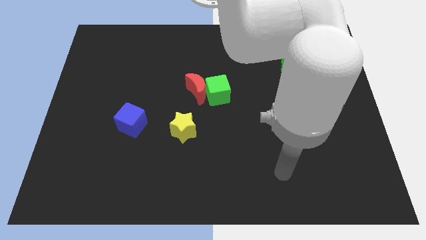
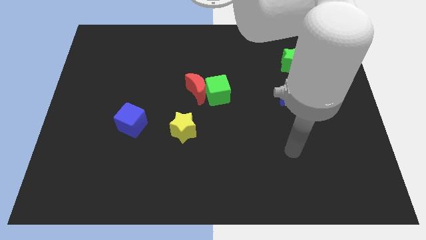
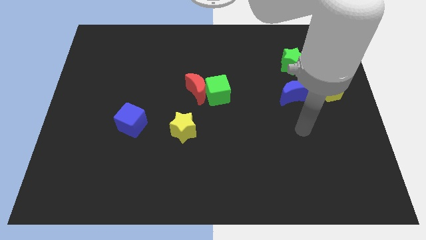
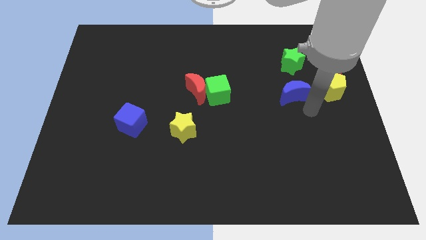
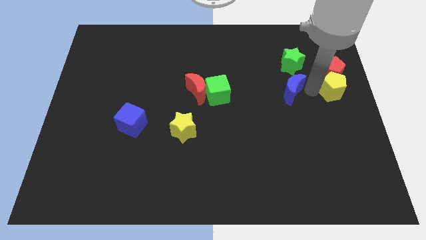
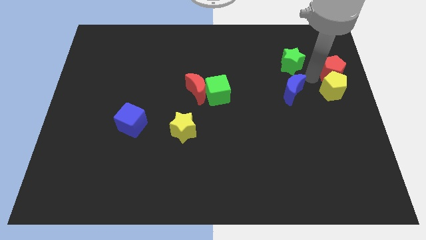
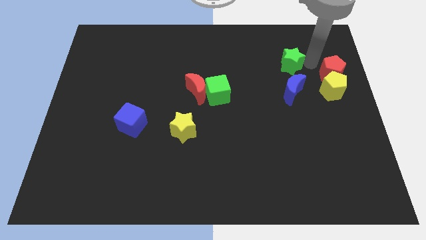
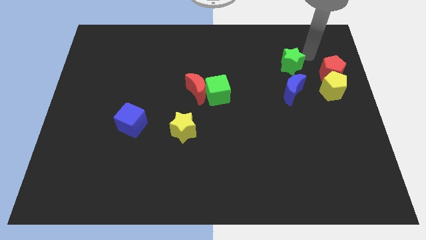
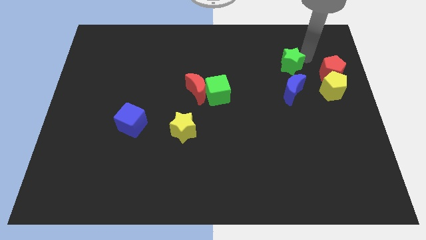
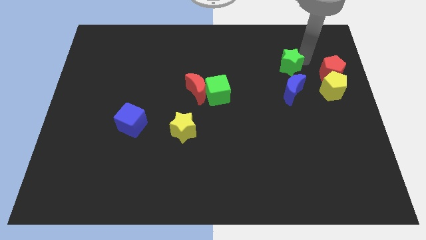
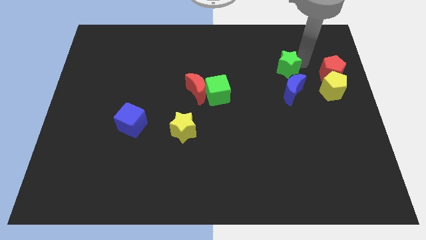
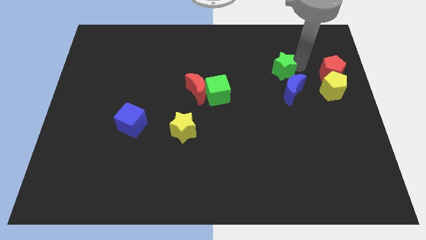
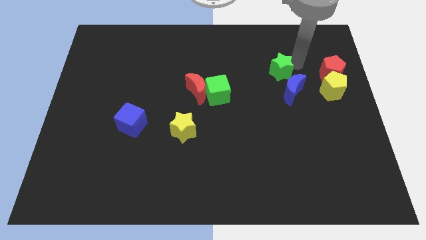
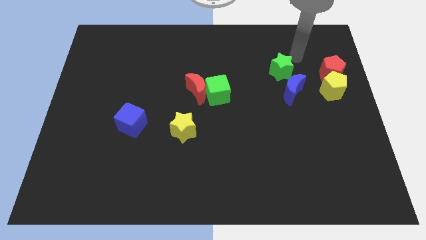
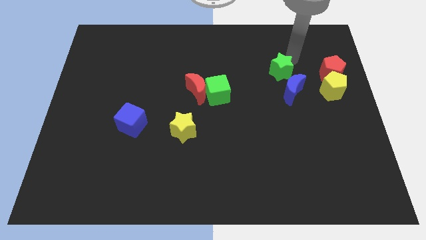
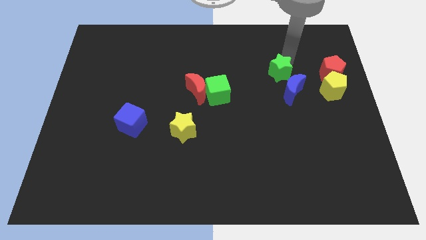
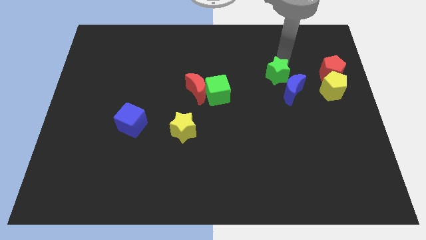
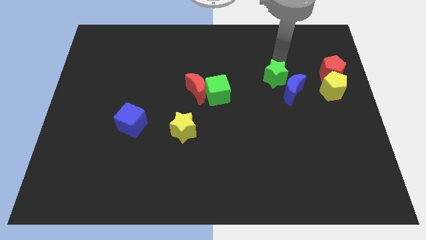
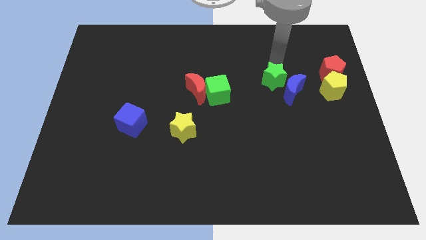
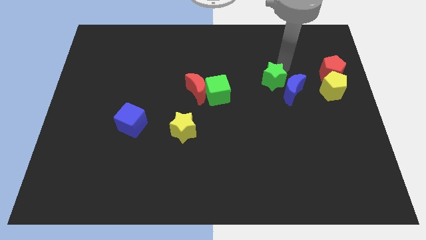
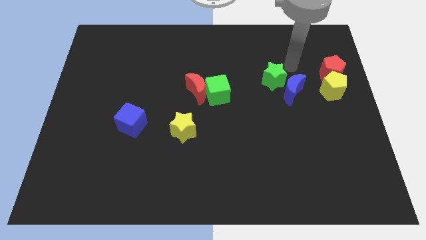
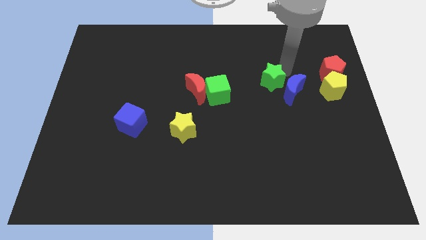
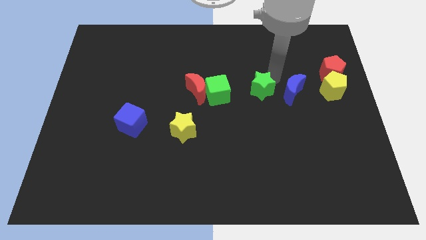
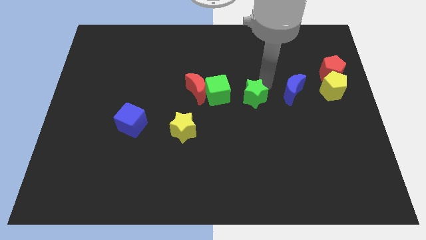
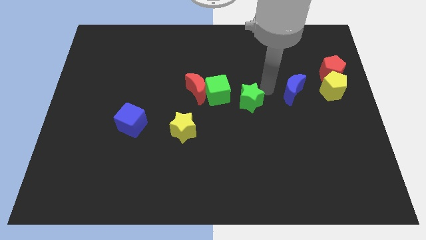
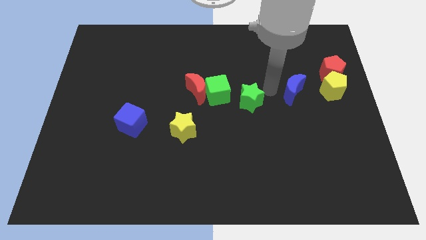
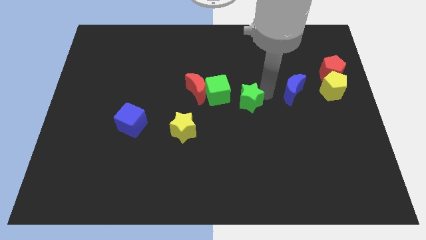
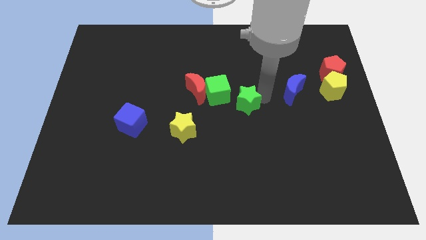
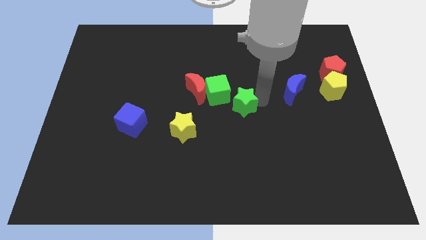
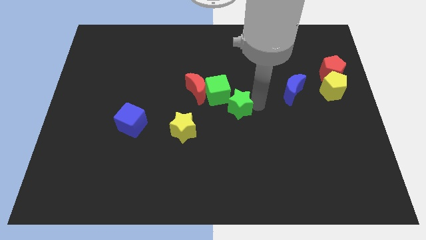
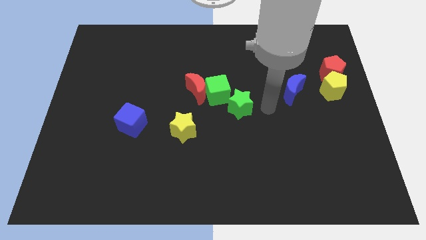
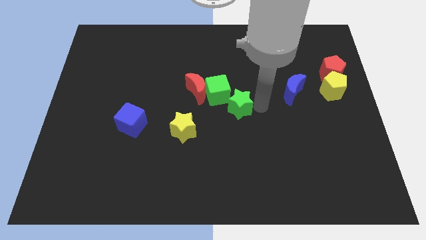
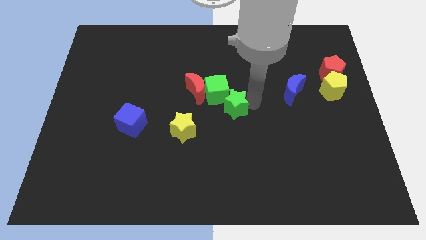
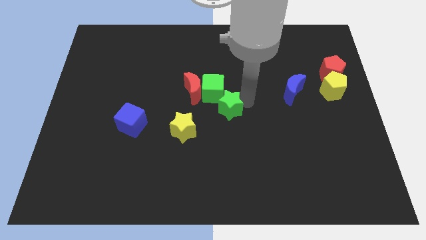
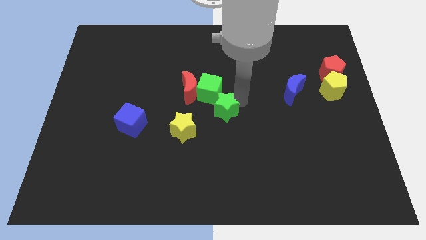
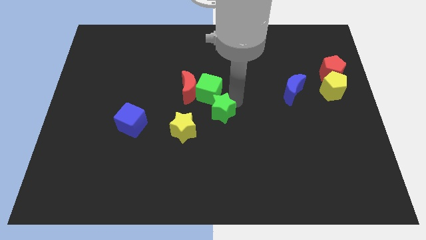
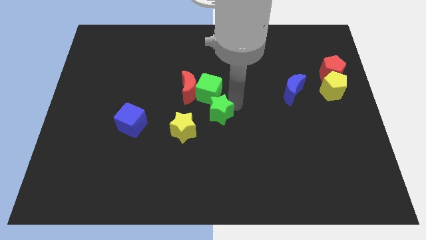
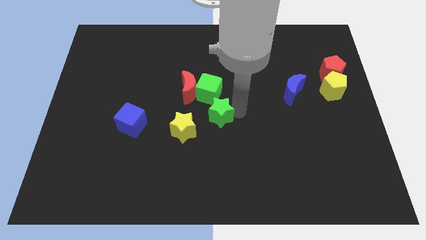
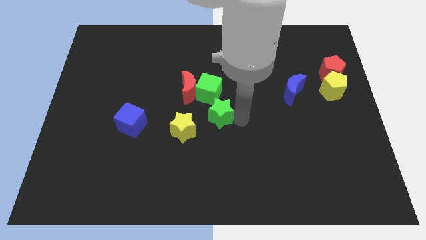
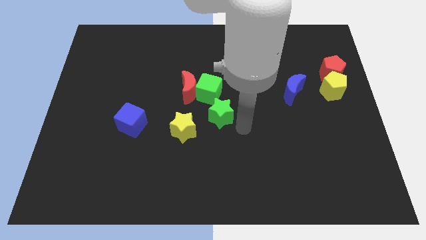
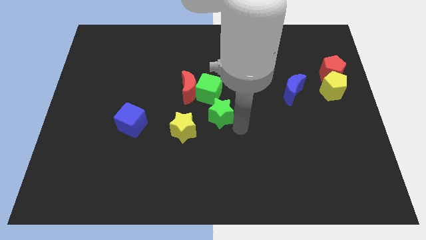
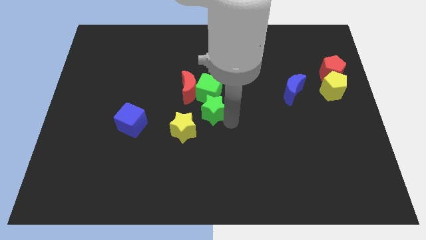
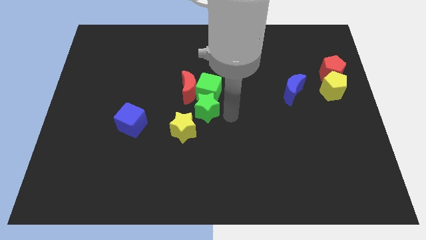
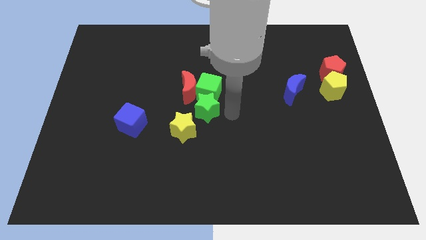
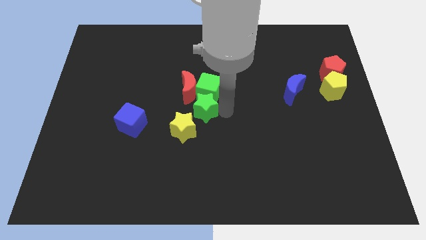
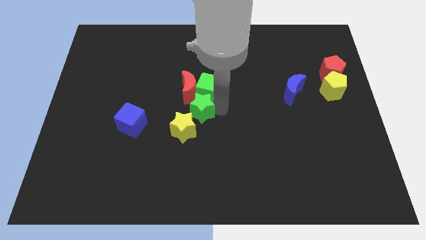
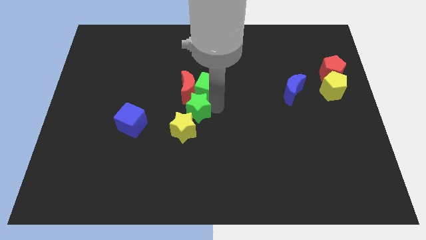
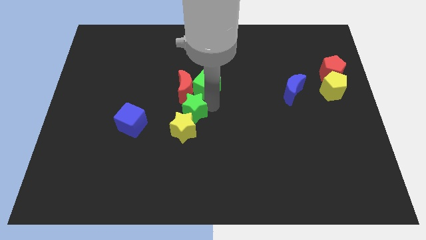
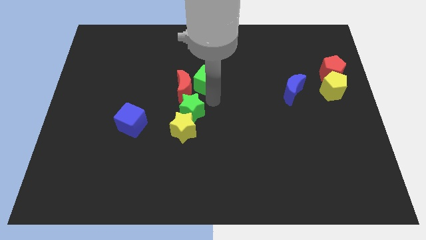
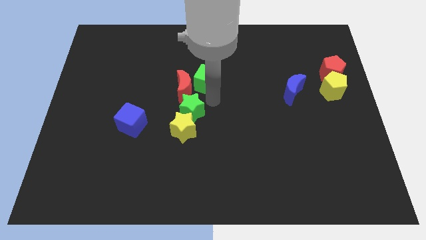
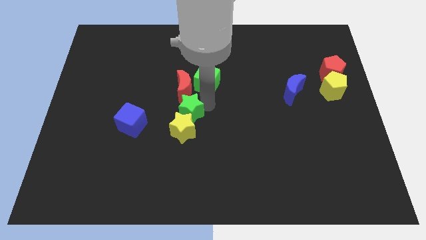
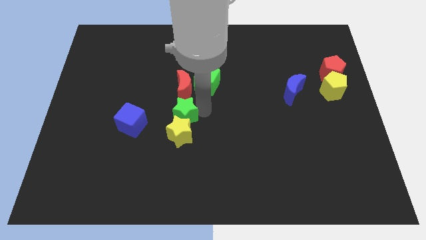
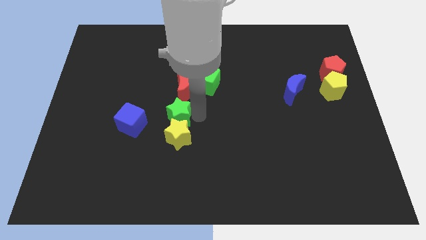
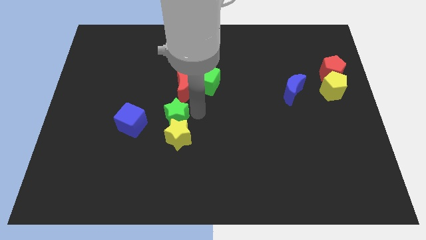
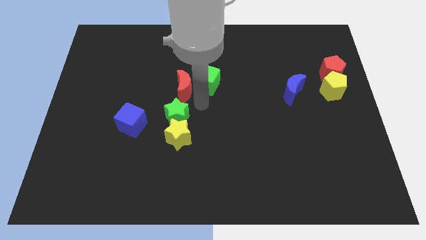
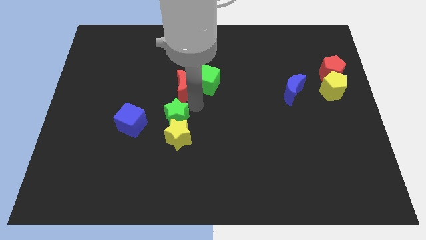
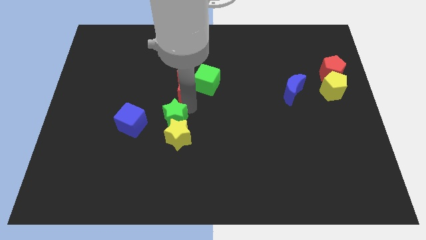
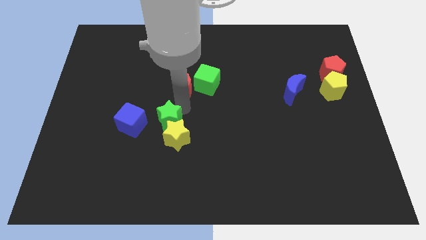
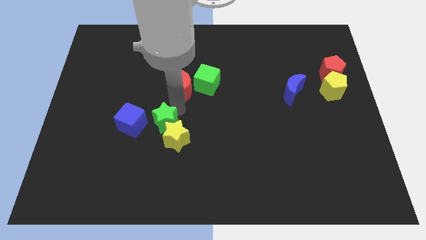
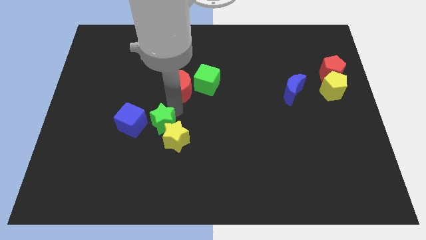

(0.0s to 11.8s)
move the green star just left of the yellow star

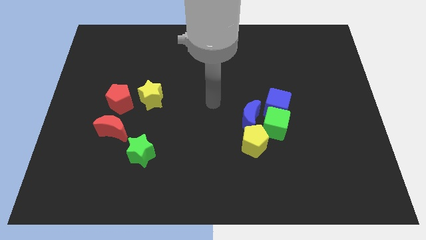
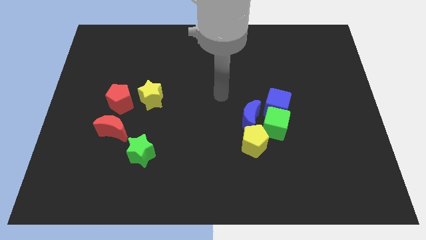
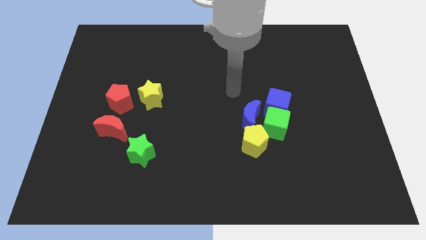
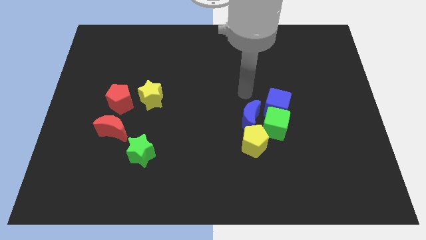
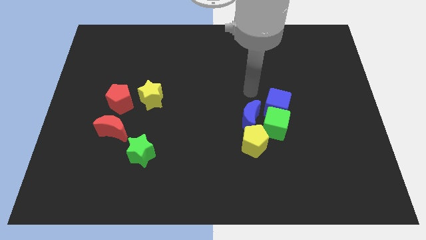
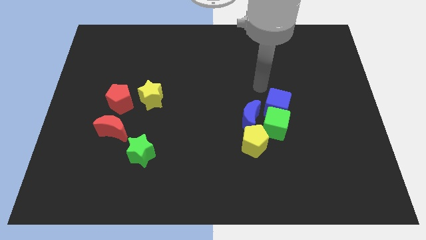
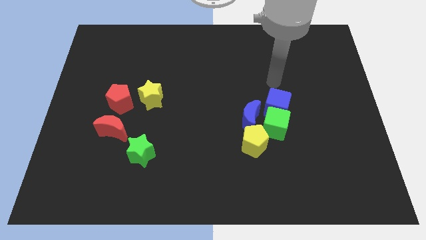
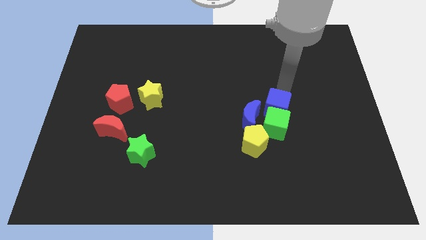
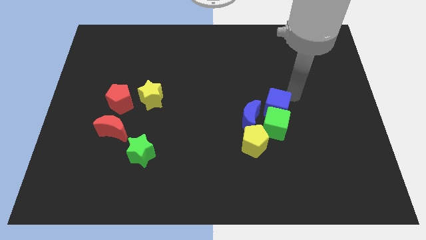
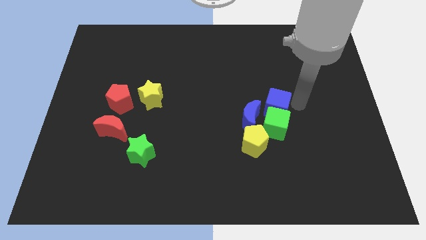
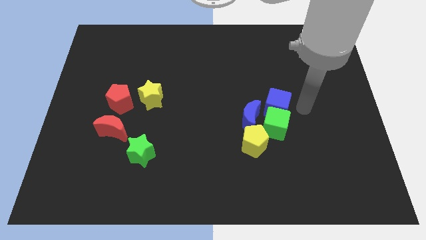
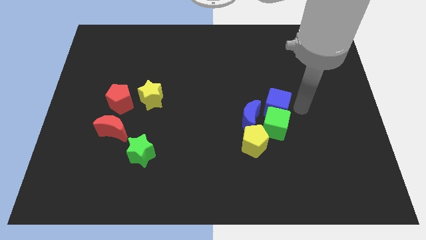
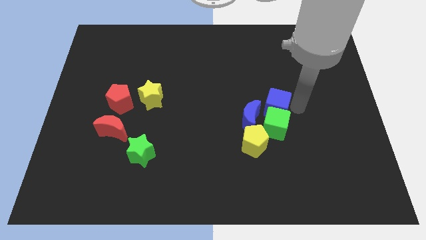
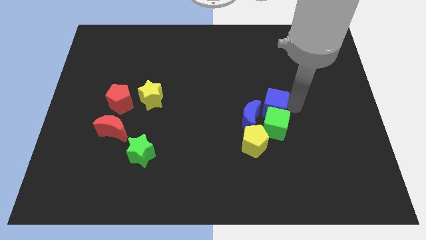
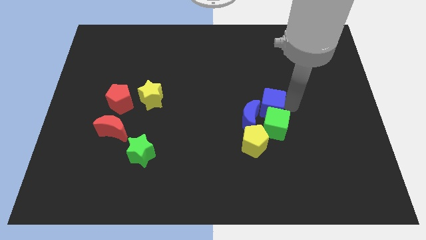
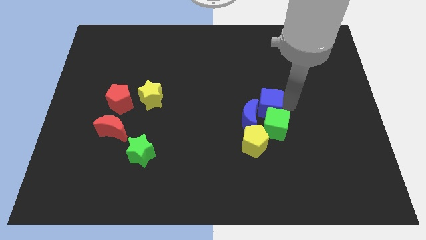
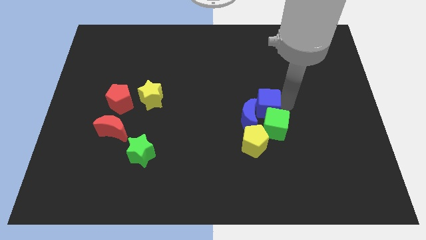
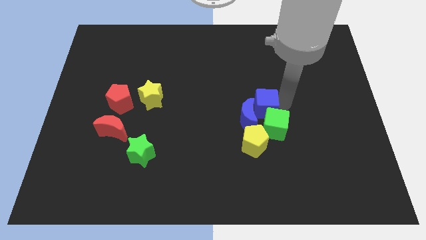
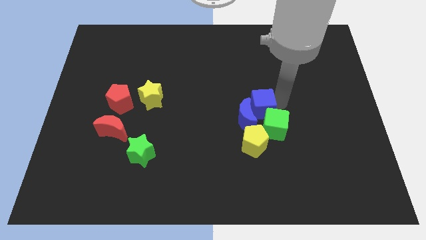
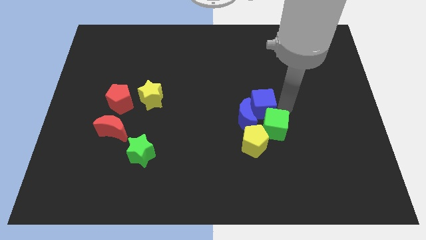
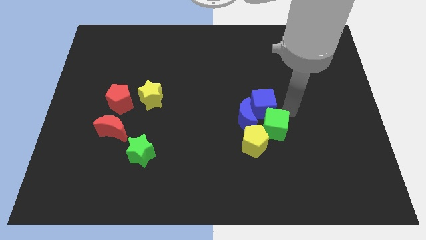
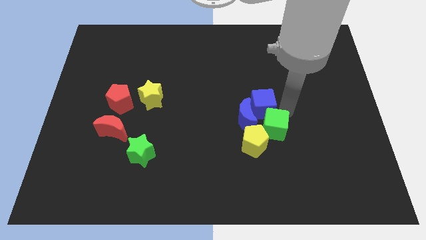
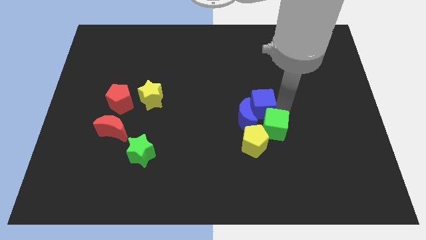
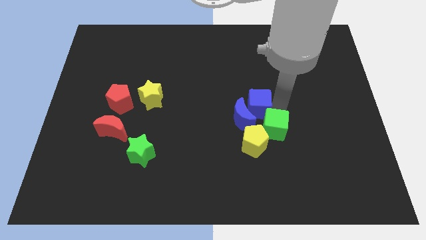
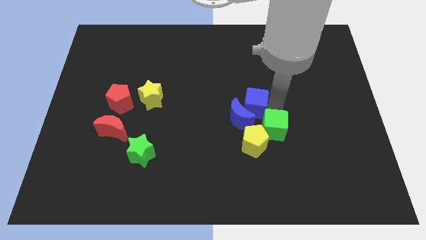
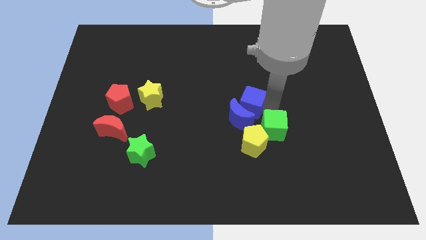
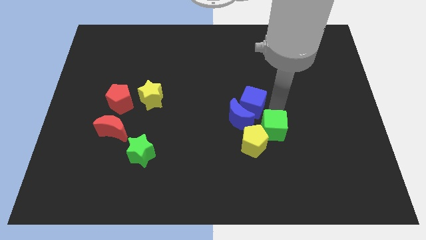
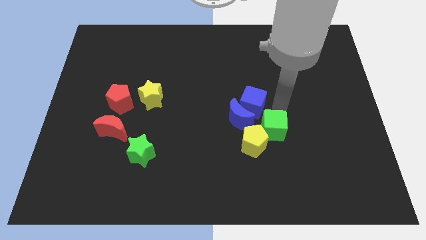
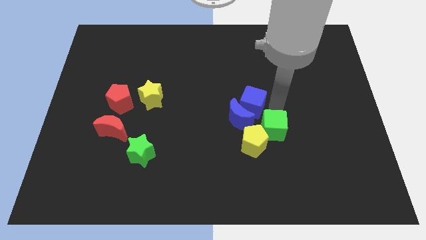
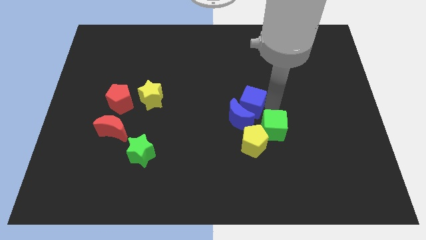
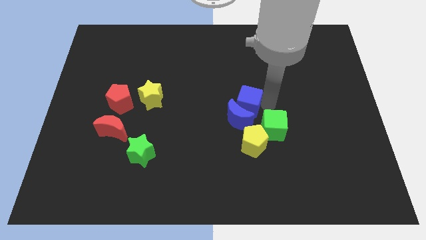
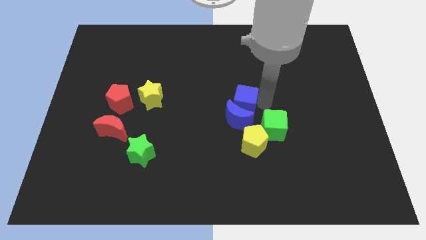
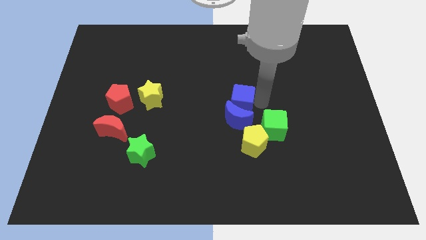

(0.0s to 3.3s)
push the blue cube diagonally up and to the left of the blue moon
